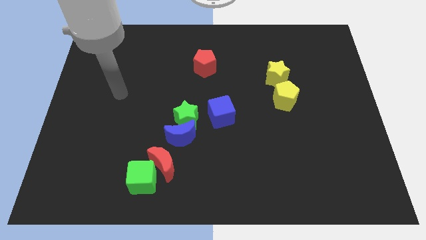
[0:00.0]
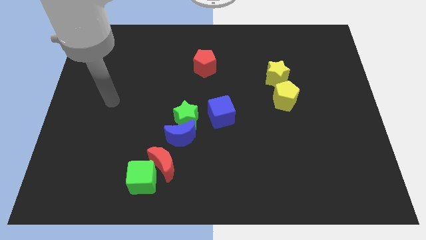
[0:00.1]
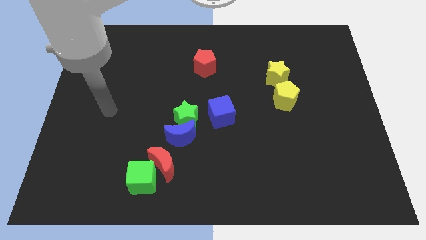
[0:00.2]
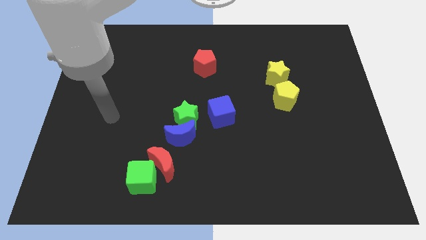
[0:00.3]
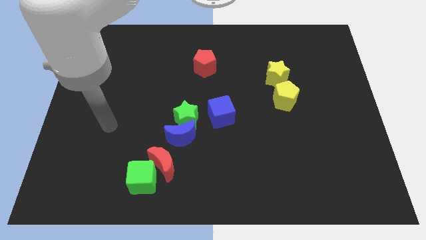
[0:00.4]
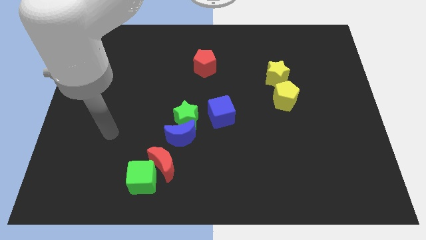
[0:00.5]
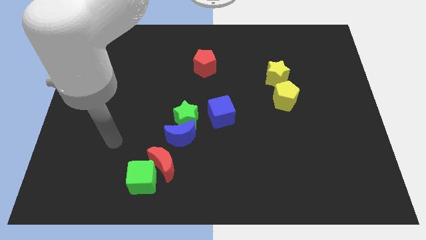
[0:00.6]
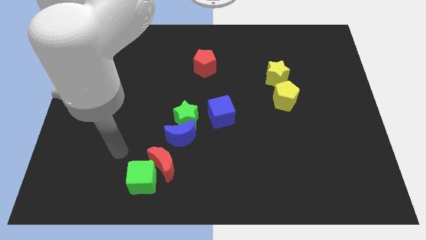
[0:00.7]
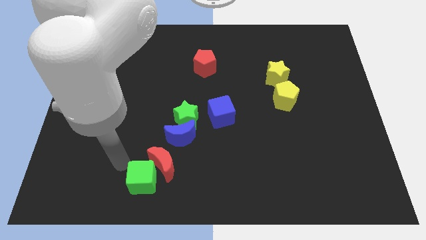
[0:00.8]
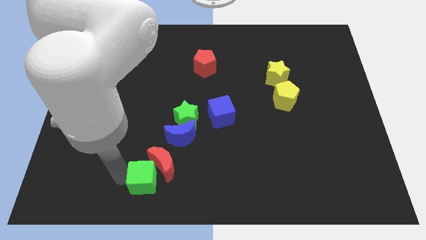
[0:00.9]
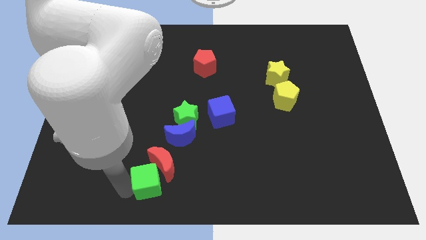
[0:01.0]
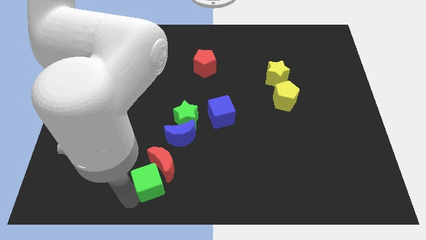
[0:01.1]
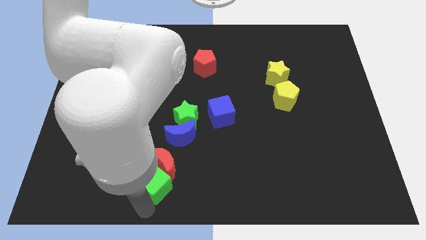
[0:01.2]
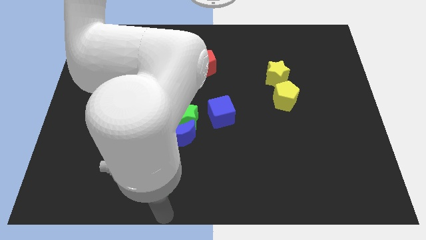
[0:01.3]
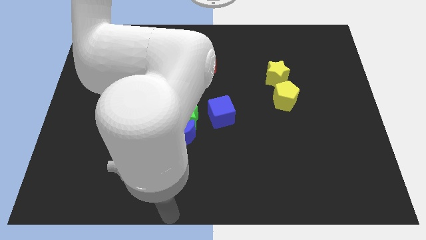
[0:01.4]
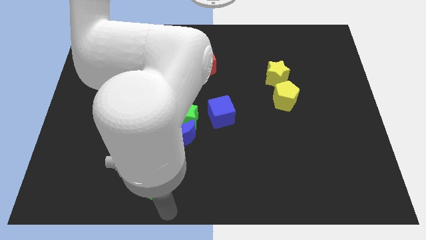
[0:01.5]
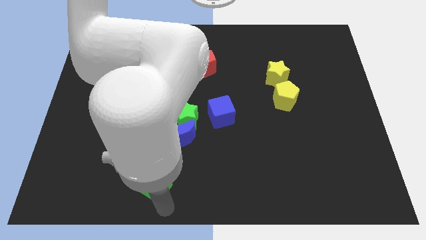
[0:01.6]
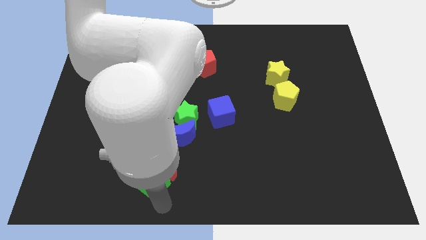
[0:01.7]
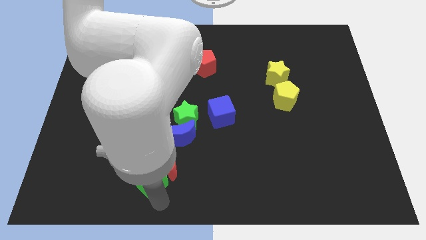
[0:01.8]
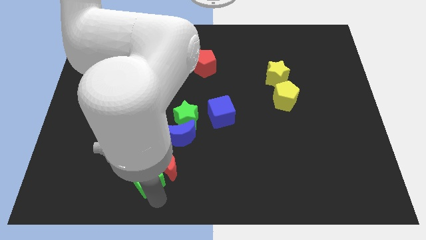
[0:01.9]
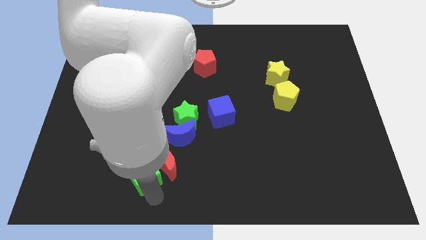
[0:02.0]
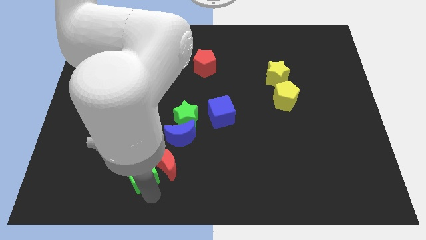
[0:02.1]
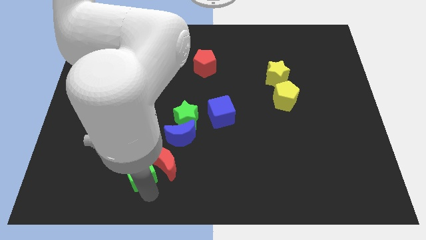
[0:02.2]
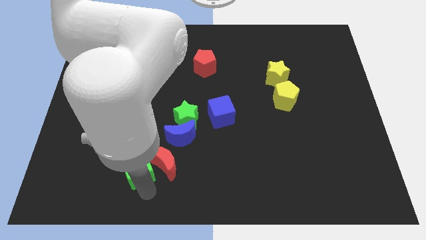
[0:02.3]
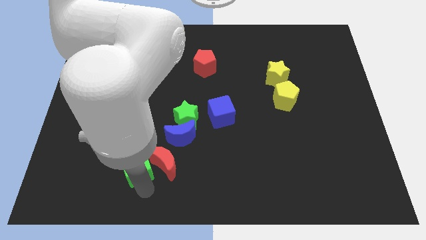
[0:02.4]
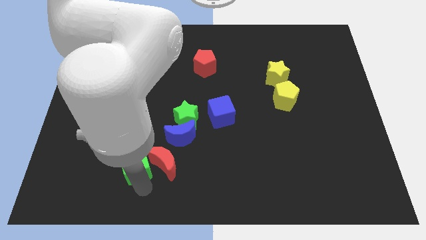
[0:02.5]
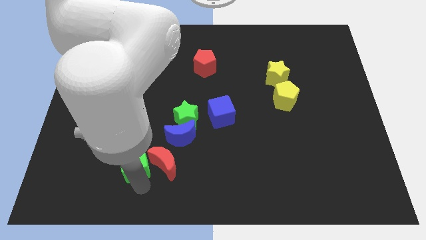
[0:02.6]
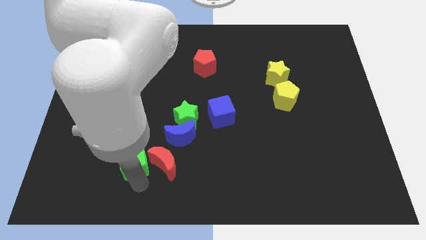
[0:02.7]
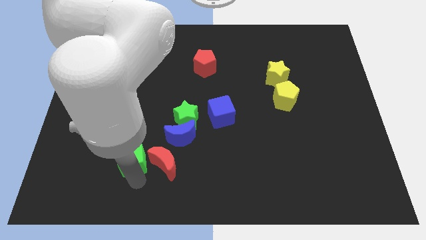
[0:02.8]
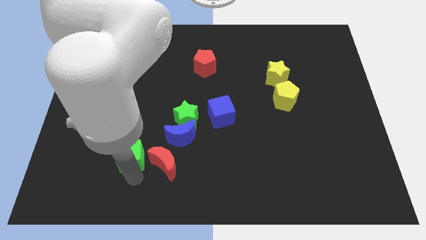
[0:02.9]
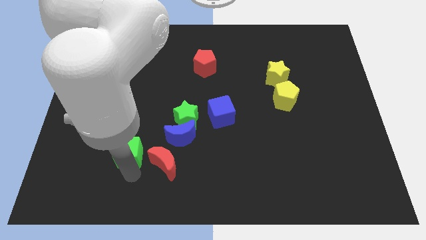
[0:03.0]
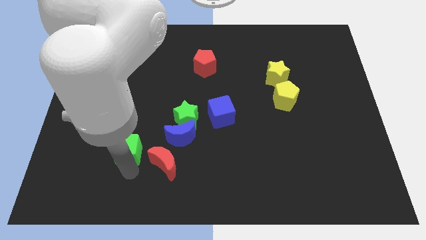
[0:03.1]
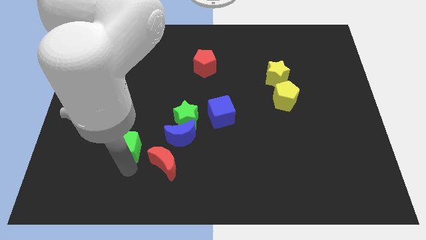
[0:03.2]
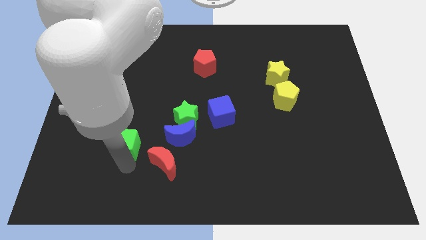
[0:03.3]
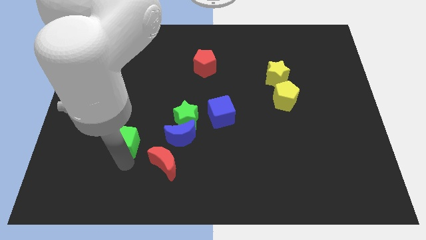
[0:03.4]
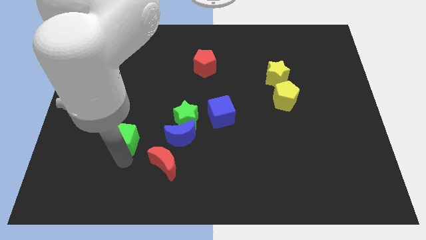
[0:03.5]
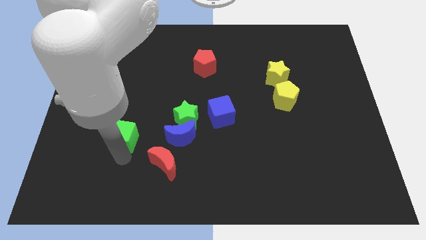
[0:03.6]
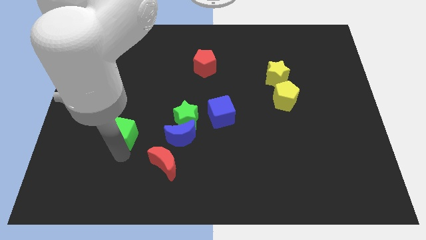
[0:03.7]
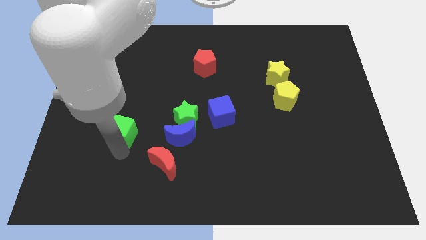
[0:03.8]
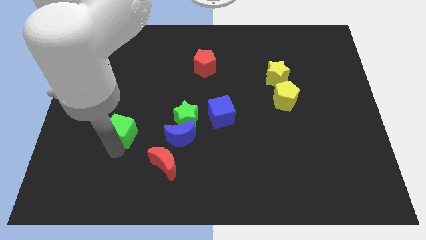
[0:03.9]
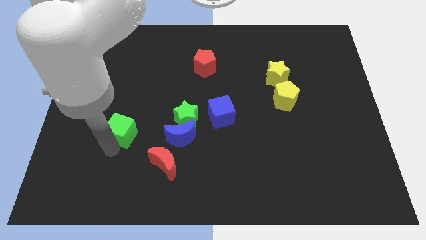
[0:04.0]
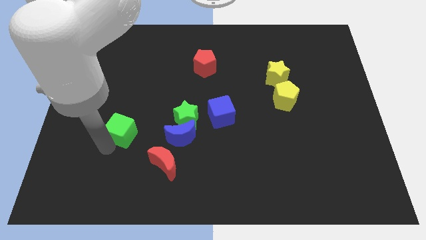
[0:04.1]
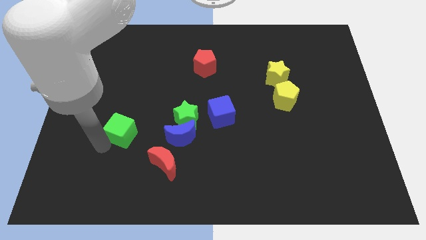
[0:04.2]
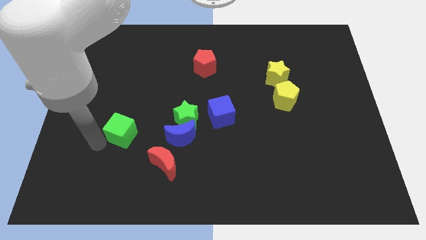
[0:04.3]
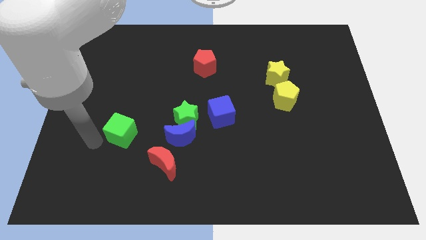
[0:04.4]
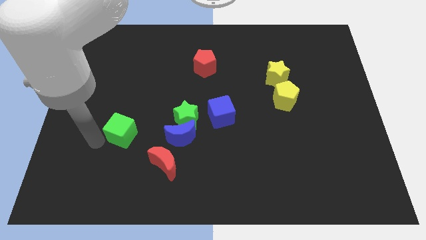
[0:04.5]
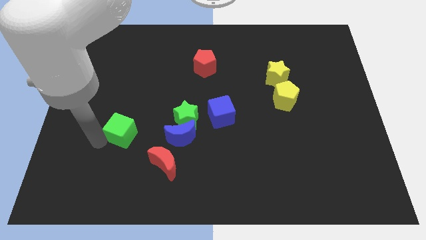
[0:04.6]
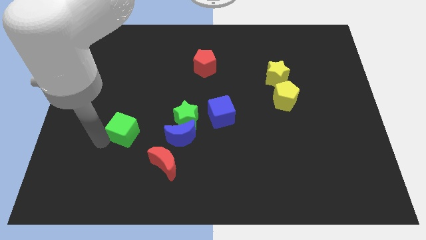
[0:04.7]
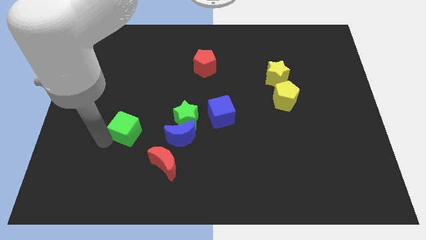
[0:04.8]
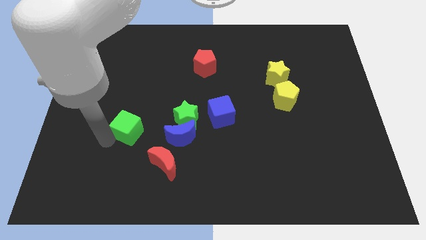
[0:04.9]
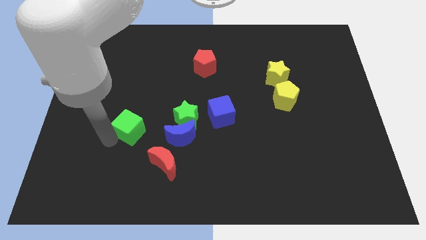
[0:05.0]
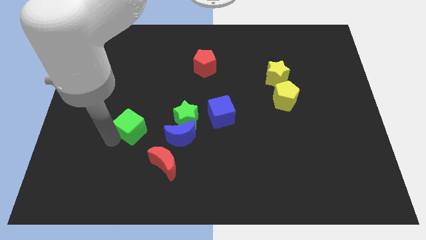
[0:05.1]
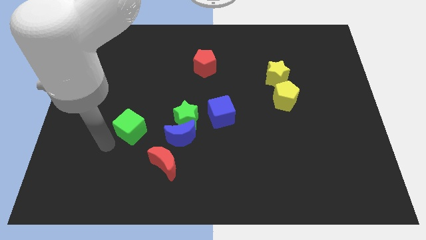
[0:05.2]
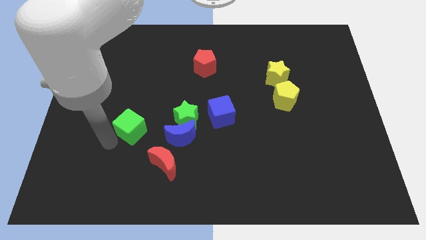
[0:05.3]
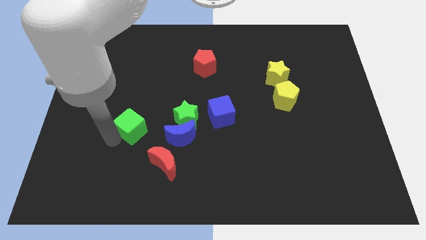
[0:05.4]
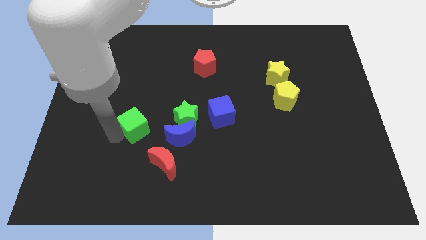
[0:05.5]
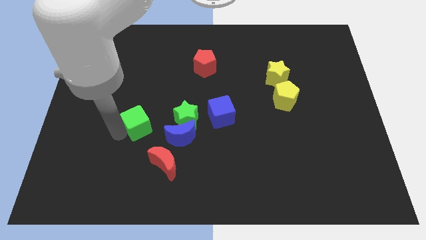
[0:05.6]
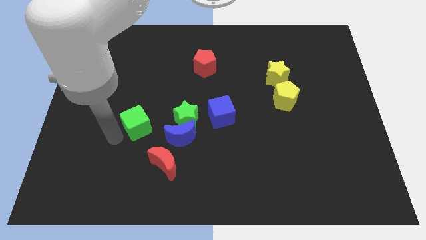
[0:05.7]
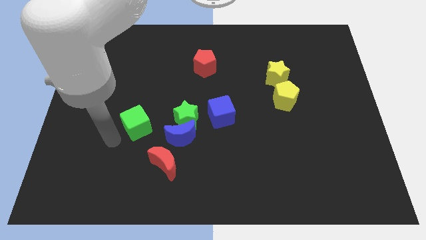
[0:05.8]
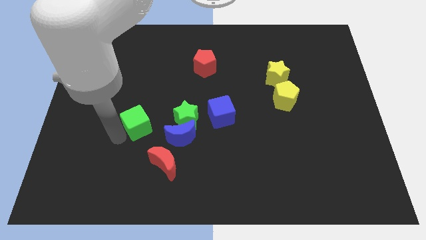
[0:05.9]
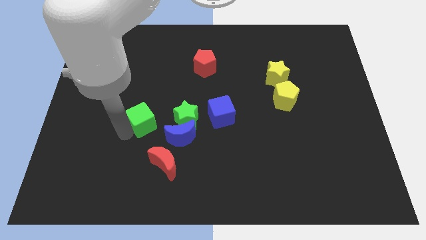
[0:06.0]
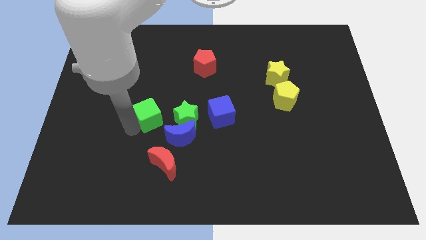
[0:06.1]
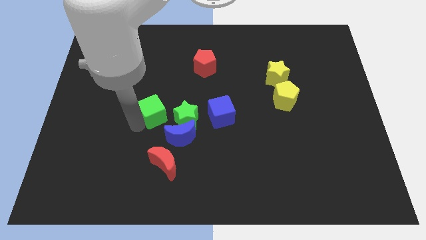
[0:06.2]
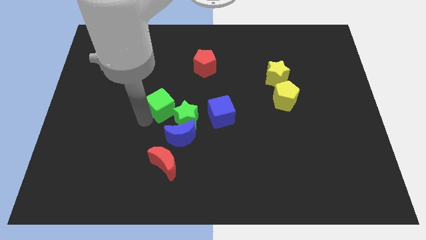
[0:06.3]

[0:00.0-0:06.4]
move the green cube to the middle of the board
